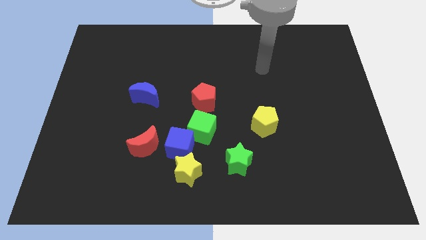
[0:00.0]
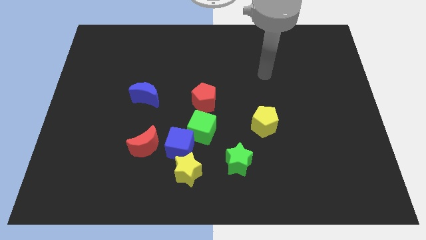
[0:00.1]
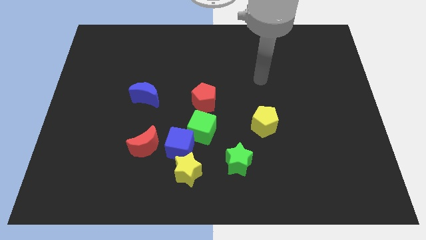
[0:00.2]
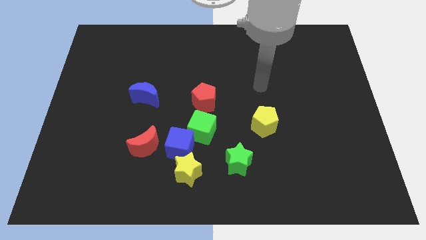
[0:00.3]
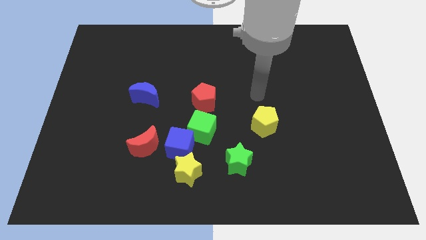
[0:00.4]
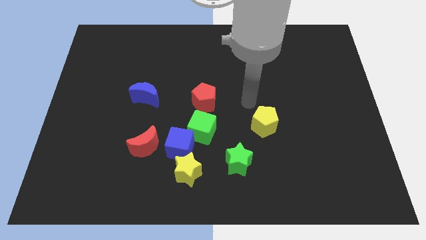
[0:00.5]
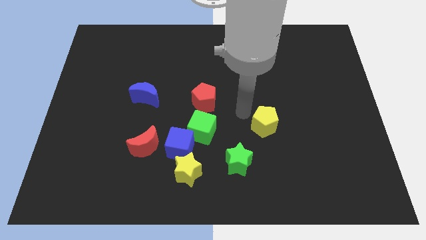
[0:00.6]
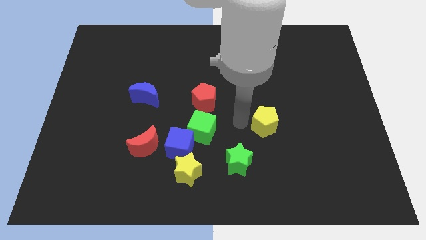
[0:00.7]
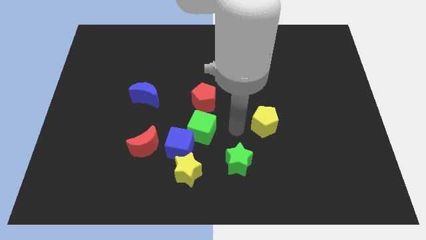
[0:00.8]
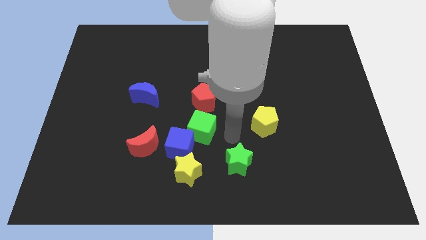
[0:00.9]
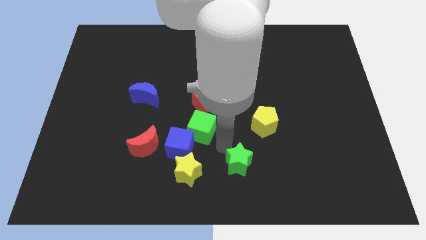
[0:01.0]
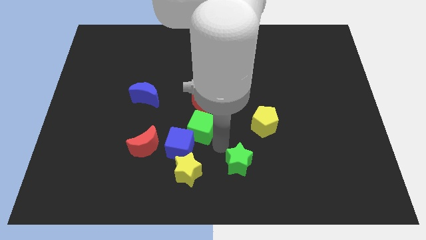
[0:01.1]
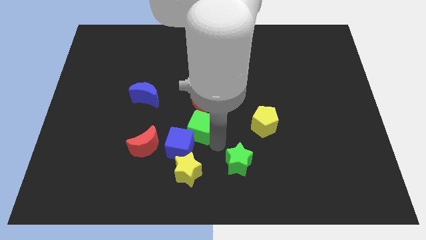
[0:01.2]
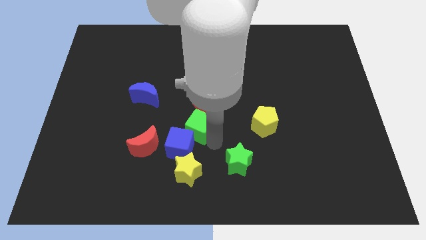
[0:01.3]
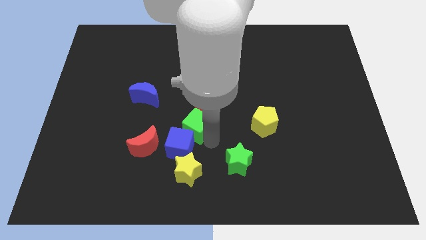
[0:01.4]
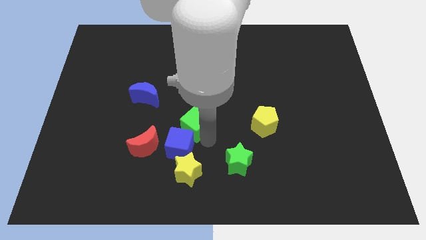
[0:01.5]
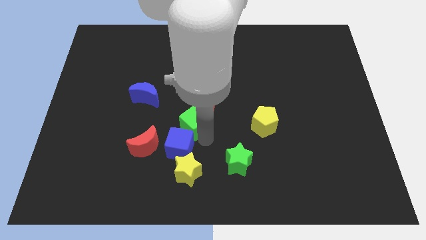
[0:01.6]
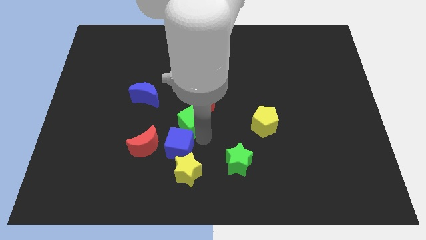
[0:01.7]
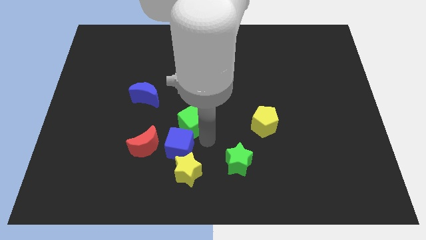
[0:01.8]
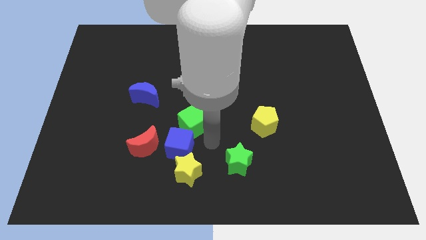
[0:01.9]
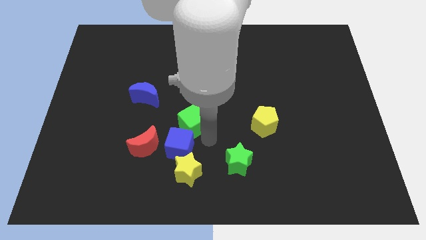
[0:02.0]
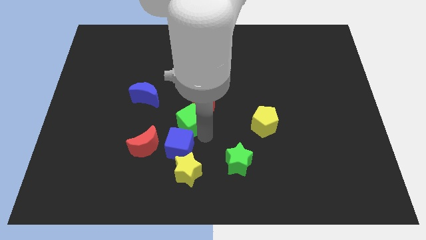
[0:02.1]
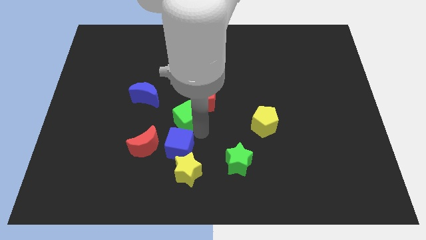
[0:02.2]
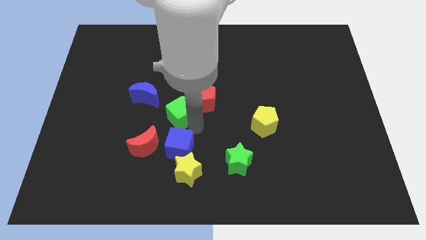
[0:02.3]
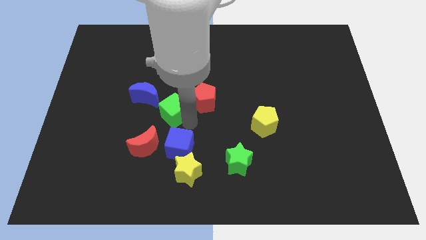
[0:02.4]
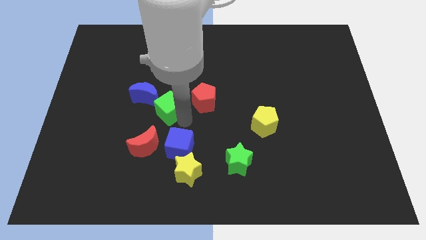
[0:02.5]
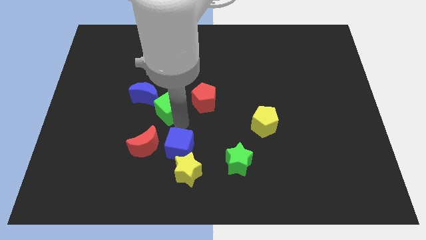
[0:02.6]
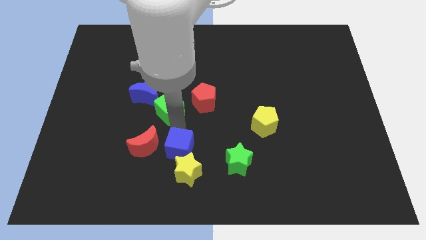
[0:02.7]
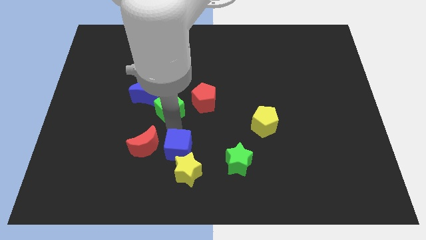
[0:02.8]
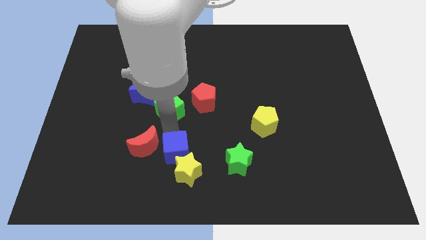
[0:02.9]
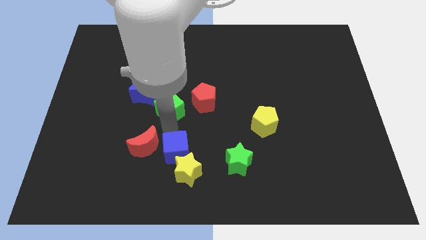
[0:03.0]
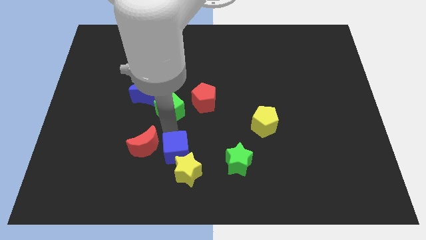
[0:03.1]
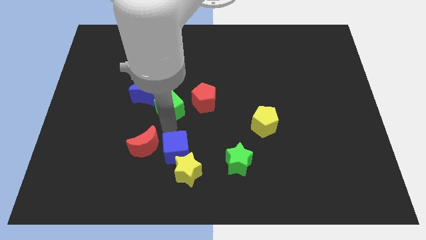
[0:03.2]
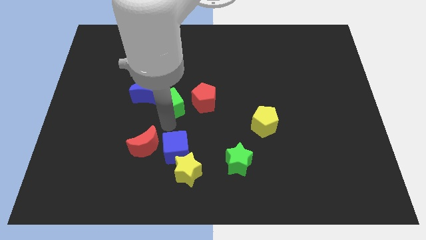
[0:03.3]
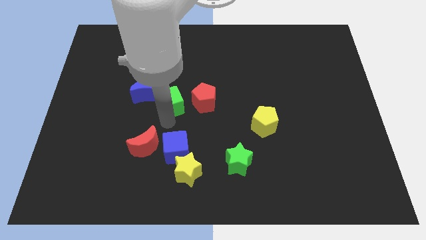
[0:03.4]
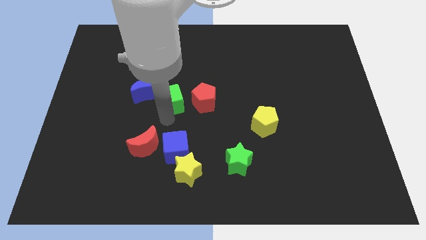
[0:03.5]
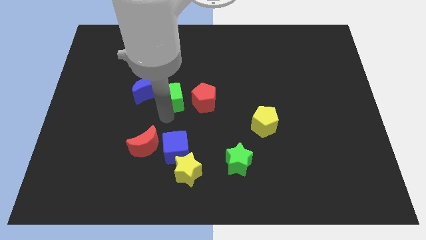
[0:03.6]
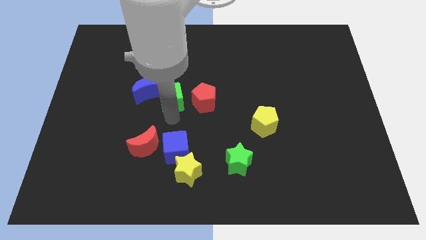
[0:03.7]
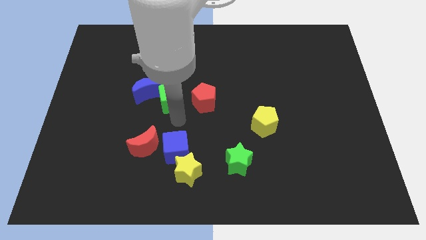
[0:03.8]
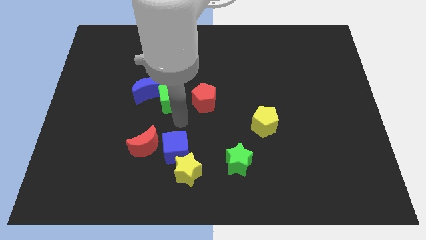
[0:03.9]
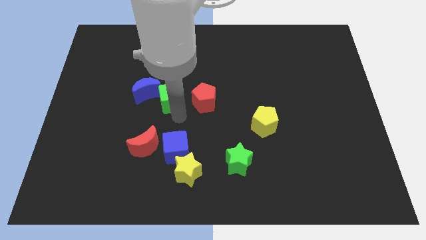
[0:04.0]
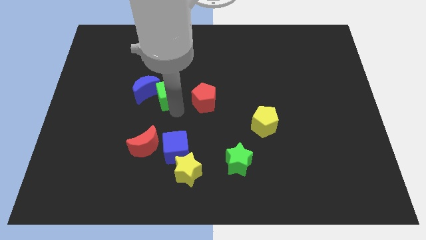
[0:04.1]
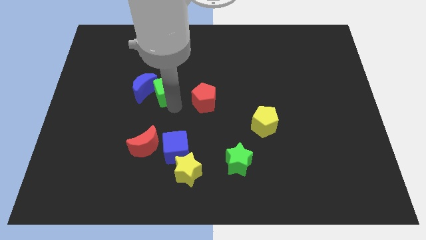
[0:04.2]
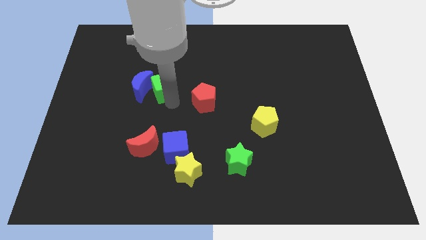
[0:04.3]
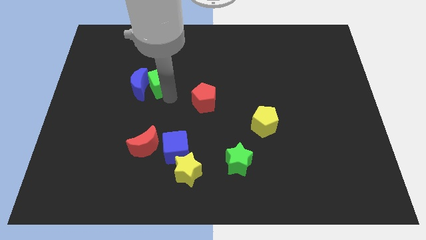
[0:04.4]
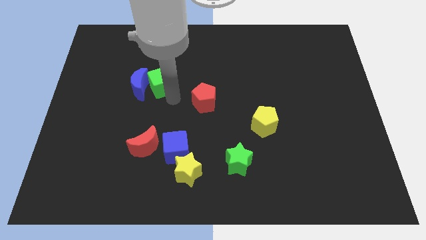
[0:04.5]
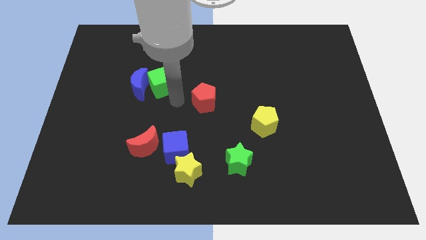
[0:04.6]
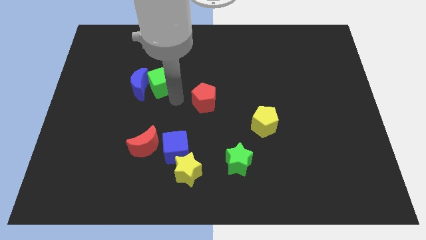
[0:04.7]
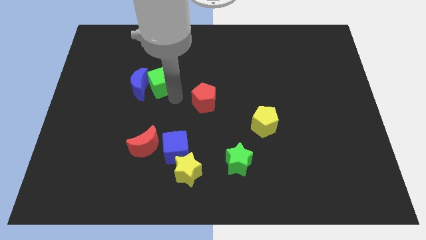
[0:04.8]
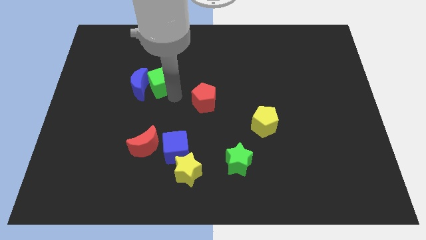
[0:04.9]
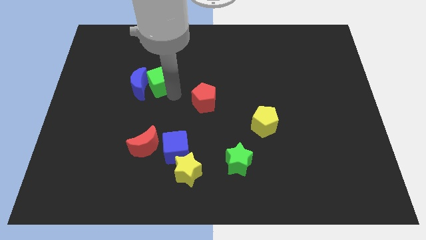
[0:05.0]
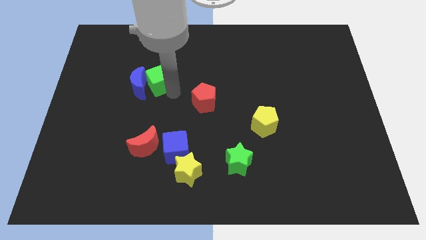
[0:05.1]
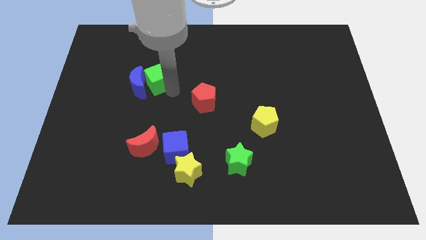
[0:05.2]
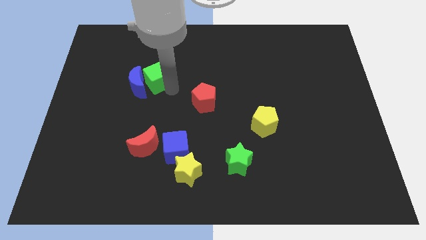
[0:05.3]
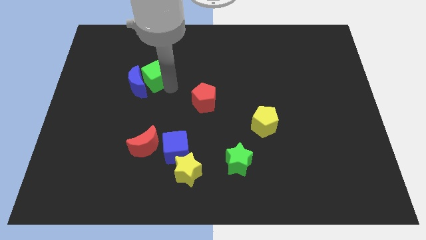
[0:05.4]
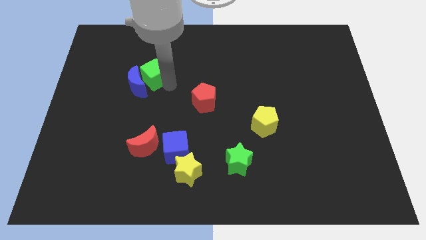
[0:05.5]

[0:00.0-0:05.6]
slide the green cube diagonally upwards and left

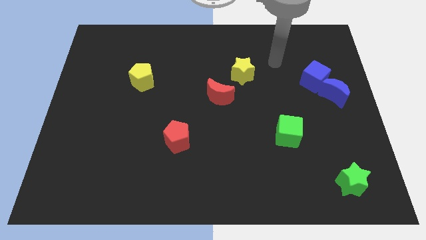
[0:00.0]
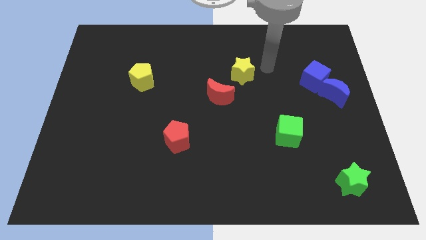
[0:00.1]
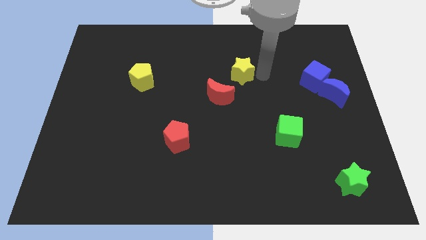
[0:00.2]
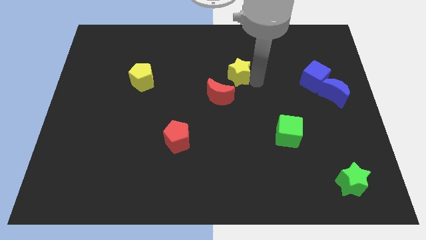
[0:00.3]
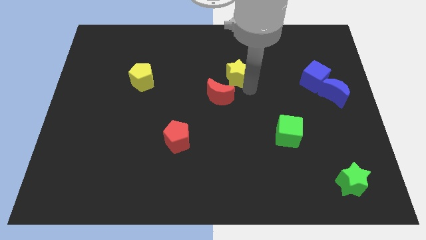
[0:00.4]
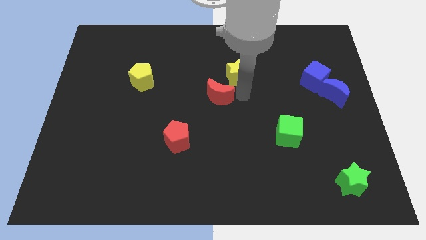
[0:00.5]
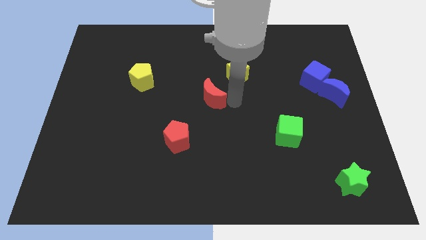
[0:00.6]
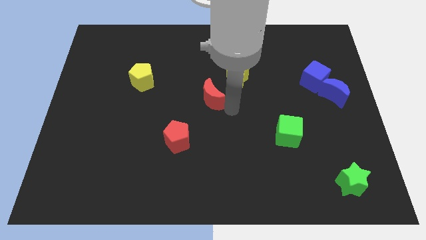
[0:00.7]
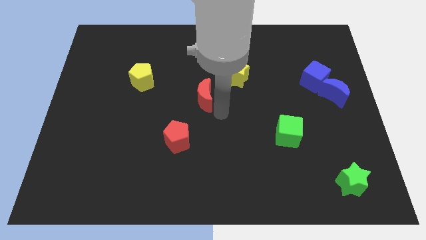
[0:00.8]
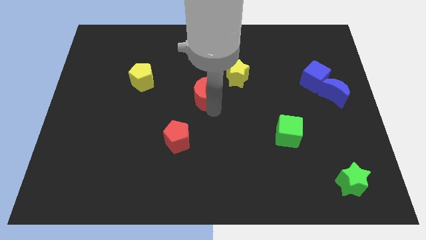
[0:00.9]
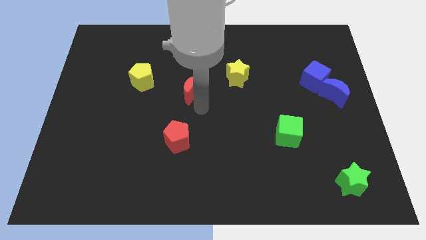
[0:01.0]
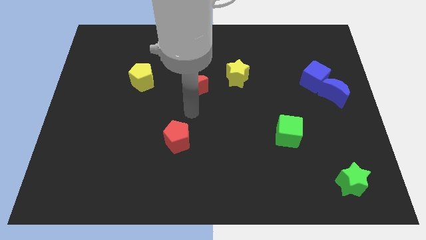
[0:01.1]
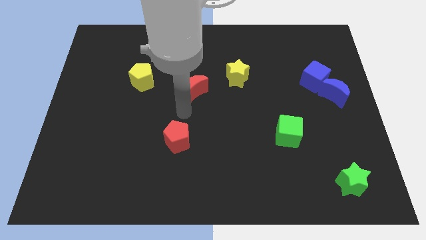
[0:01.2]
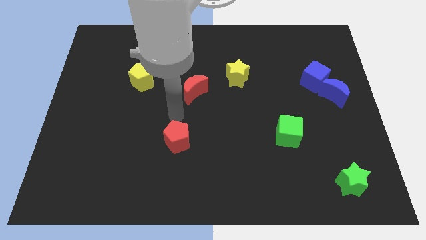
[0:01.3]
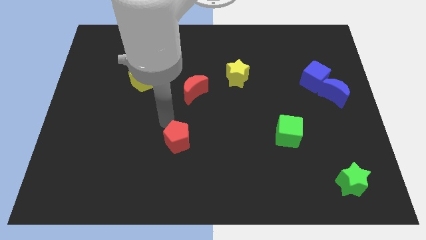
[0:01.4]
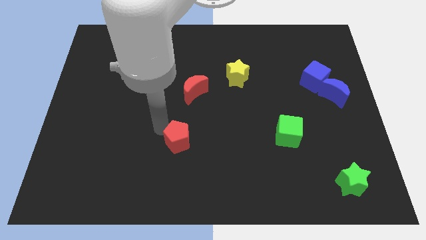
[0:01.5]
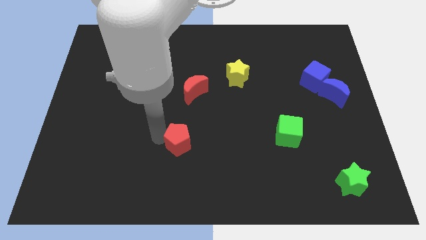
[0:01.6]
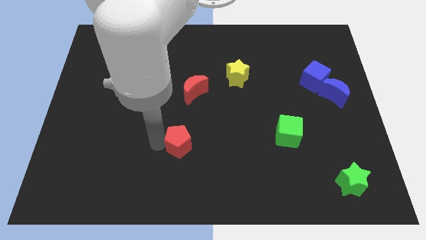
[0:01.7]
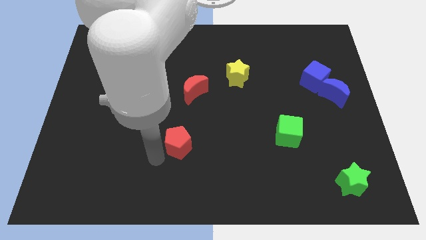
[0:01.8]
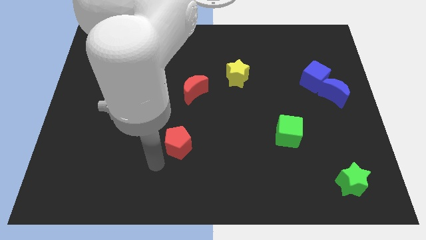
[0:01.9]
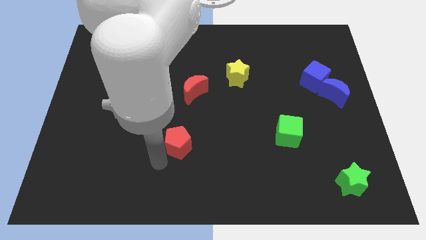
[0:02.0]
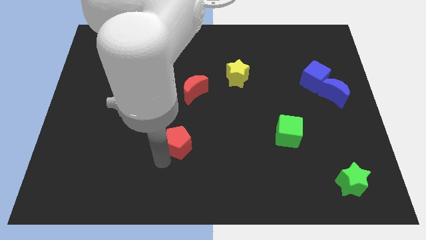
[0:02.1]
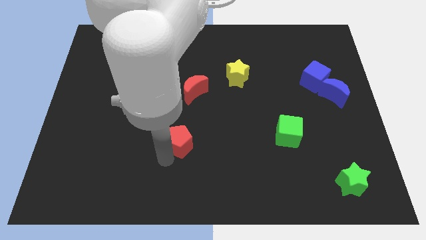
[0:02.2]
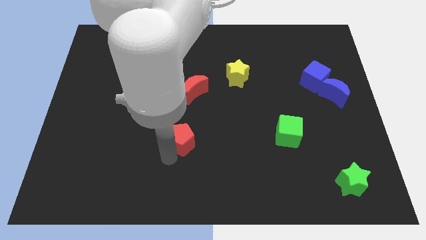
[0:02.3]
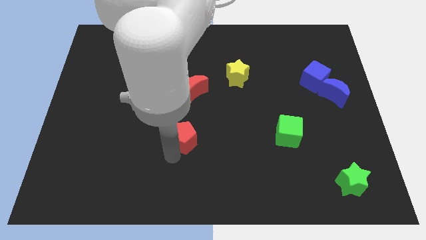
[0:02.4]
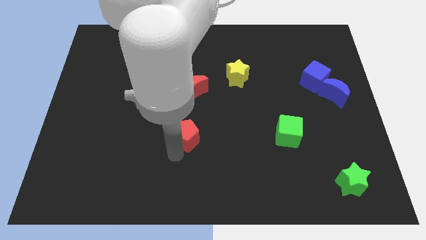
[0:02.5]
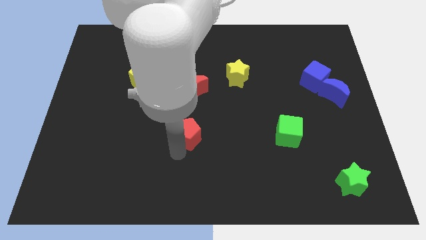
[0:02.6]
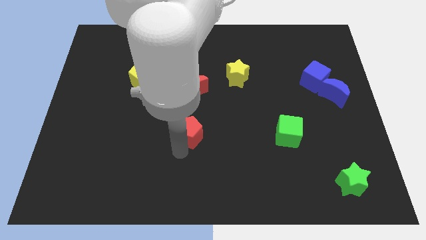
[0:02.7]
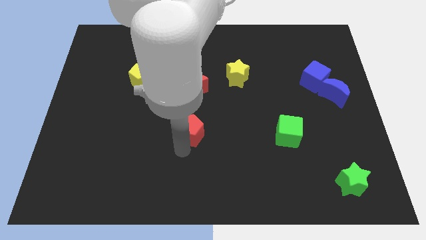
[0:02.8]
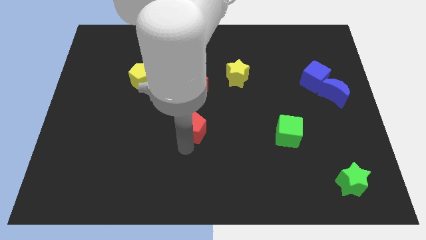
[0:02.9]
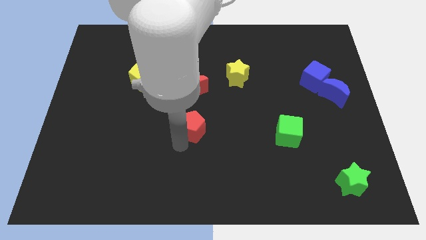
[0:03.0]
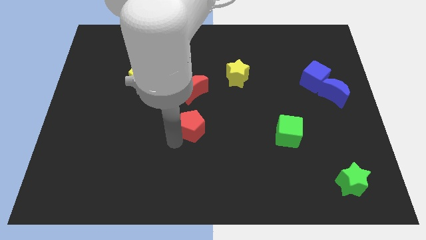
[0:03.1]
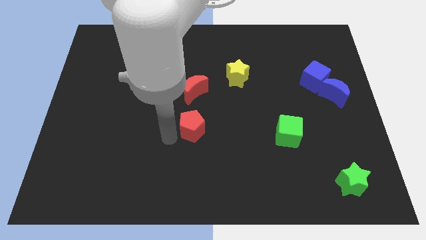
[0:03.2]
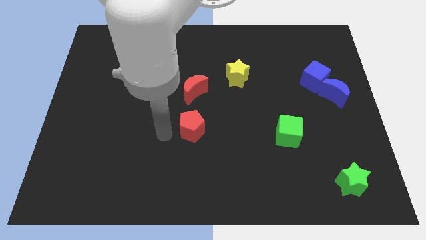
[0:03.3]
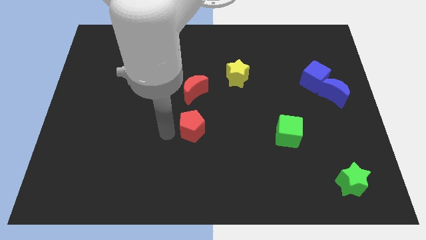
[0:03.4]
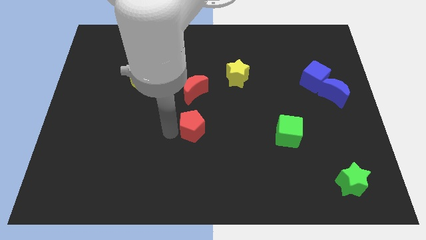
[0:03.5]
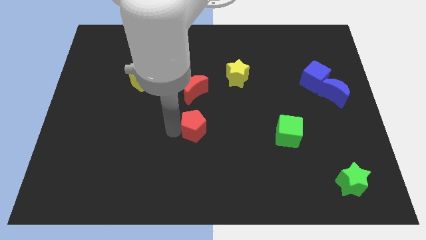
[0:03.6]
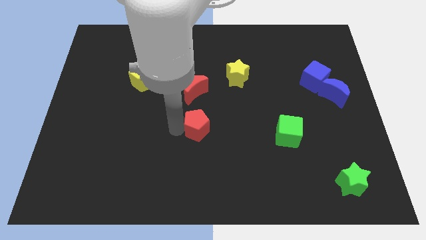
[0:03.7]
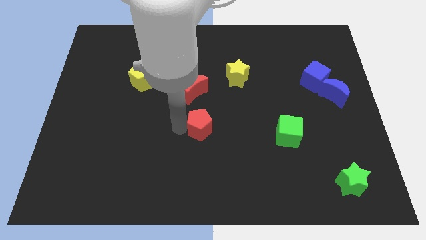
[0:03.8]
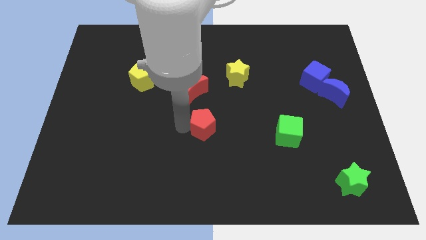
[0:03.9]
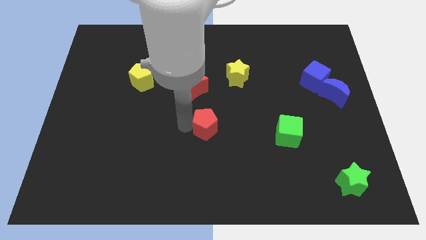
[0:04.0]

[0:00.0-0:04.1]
push the red pentagon slightly upwards and to the right diagonally
